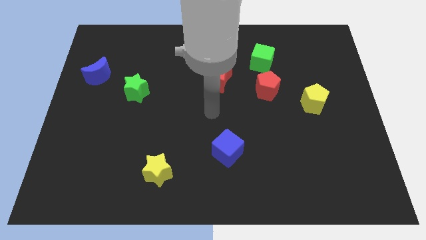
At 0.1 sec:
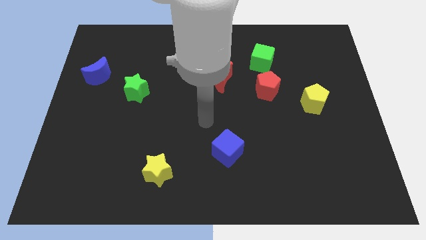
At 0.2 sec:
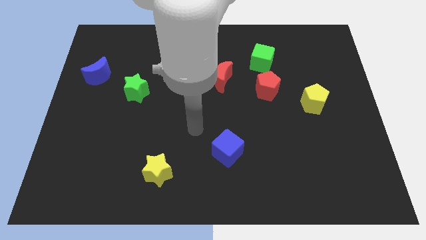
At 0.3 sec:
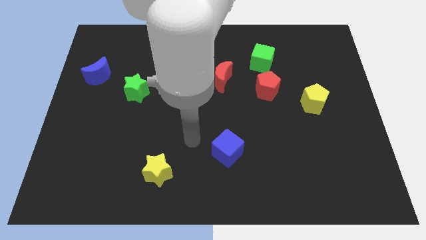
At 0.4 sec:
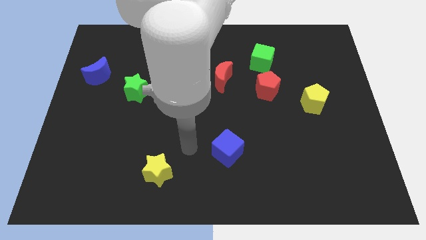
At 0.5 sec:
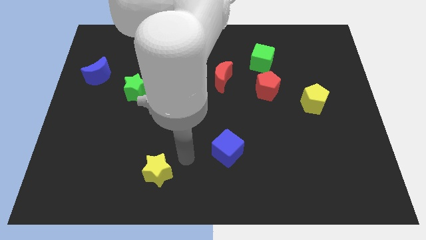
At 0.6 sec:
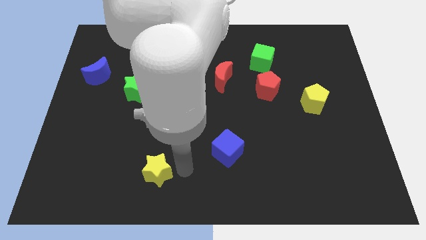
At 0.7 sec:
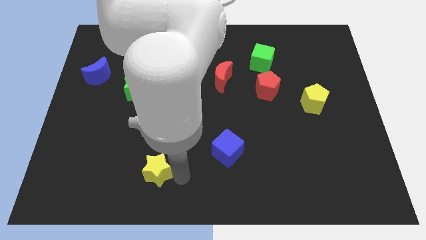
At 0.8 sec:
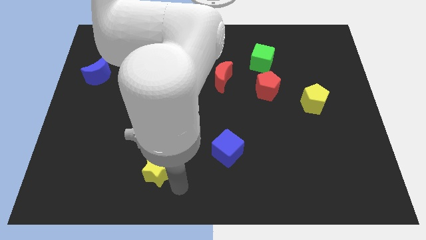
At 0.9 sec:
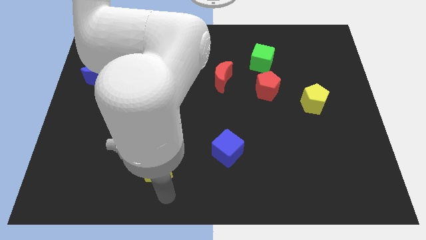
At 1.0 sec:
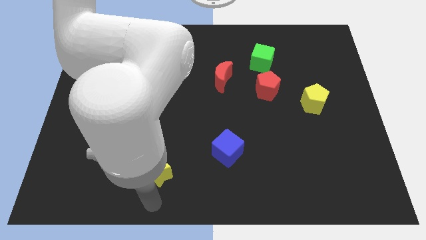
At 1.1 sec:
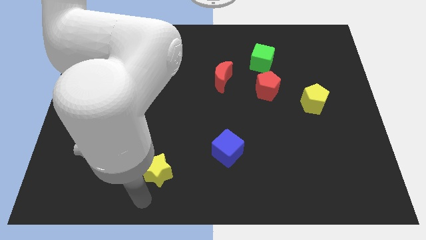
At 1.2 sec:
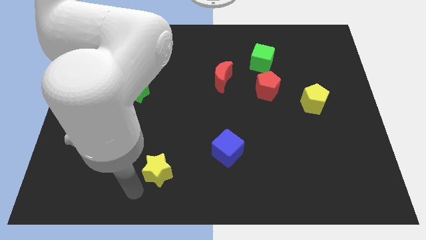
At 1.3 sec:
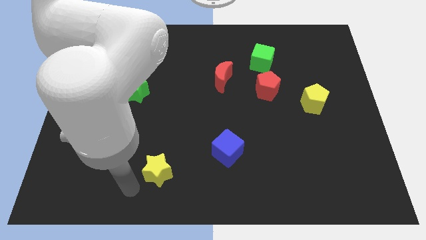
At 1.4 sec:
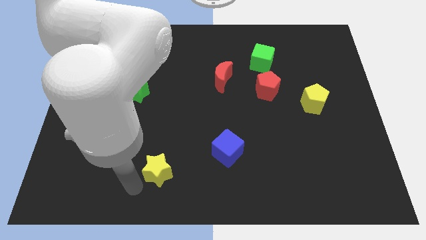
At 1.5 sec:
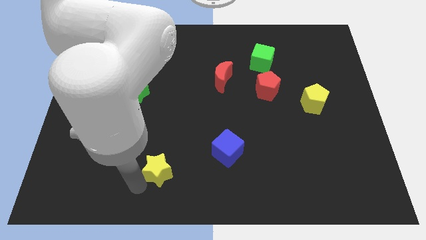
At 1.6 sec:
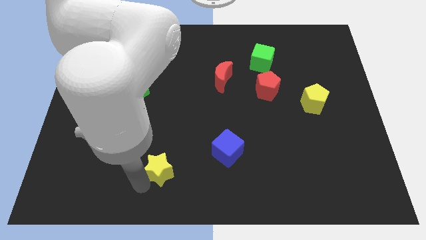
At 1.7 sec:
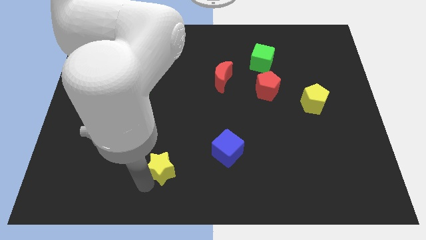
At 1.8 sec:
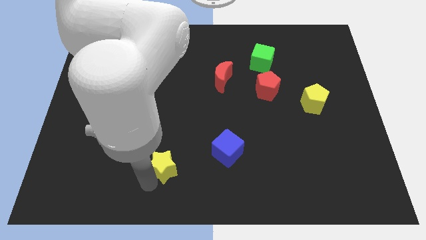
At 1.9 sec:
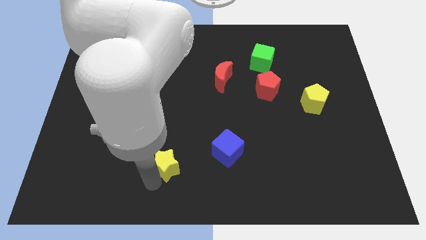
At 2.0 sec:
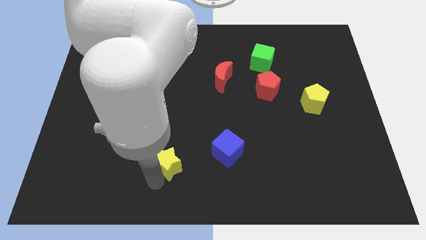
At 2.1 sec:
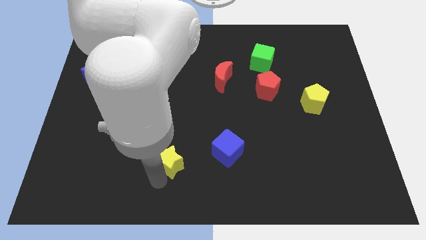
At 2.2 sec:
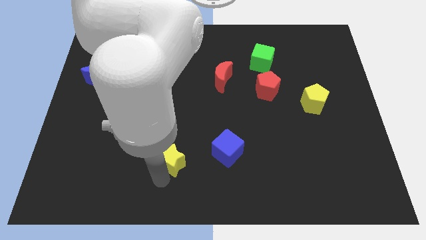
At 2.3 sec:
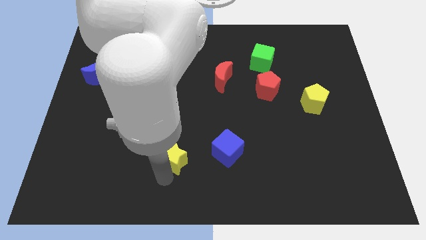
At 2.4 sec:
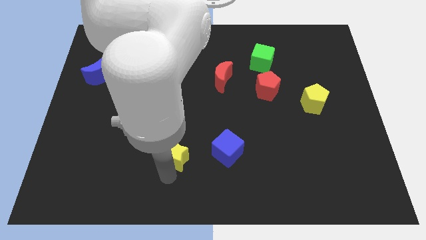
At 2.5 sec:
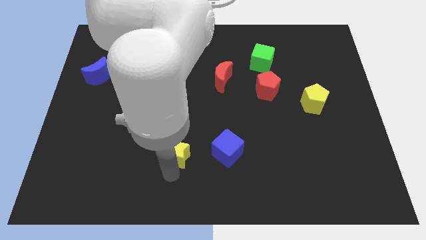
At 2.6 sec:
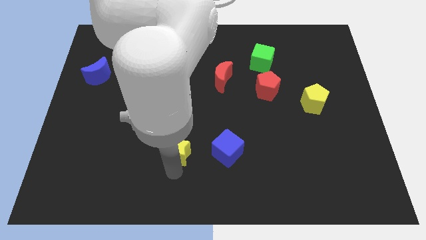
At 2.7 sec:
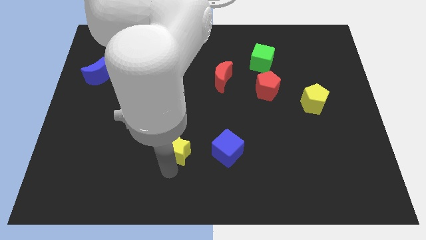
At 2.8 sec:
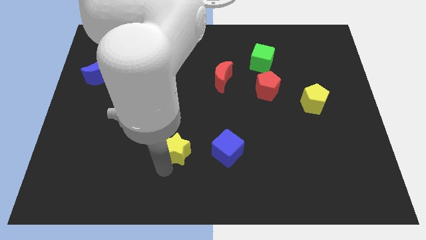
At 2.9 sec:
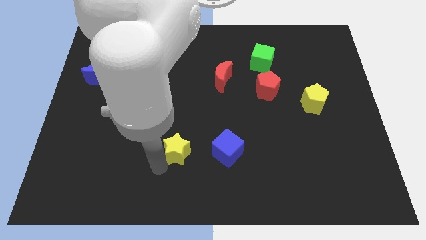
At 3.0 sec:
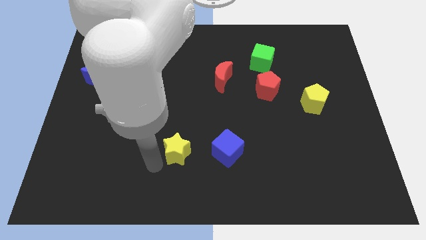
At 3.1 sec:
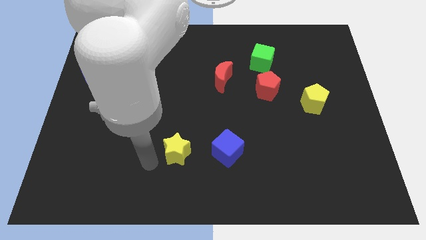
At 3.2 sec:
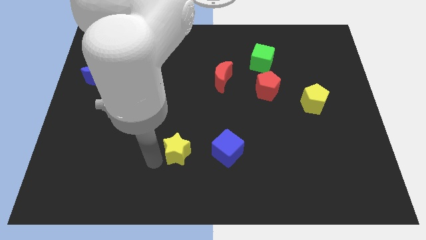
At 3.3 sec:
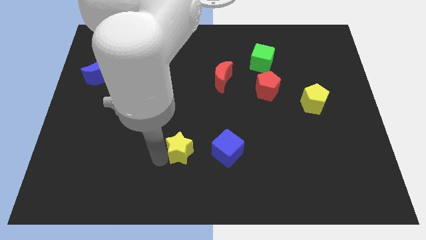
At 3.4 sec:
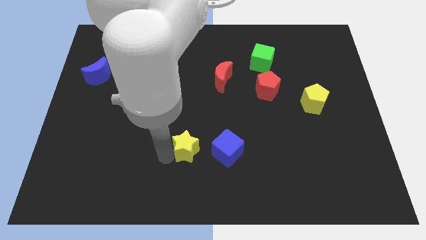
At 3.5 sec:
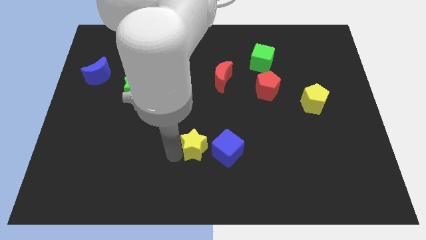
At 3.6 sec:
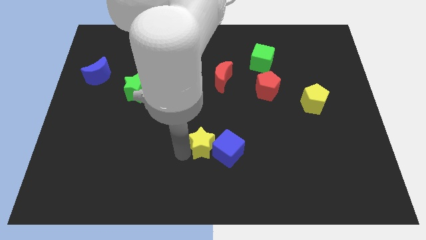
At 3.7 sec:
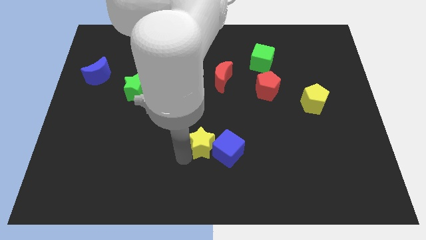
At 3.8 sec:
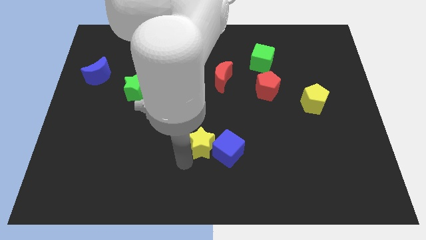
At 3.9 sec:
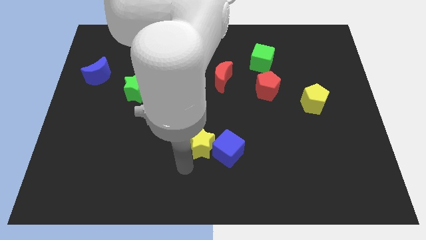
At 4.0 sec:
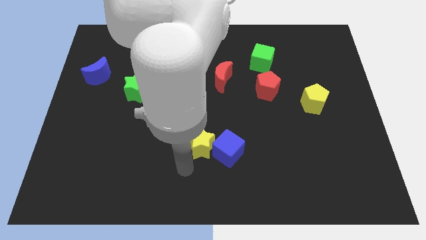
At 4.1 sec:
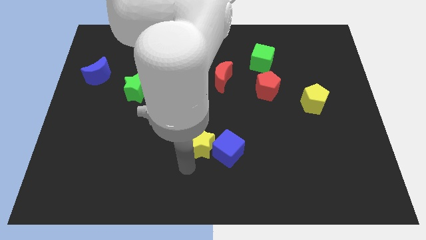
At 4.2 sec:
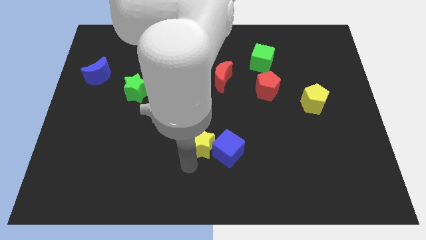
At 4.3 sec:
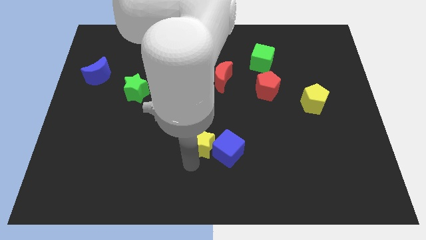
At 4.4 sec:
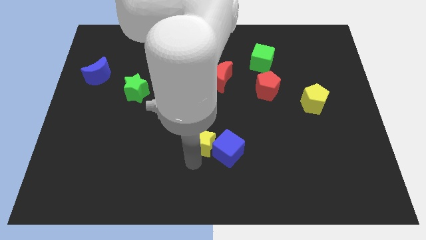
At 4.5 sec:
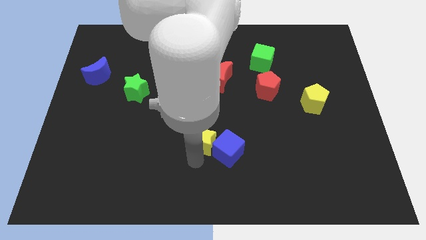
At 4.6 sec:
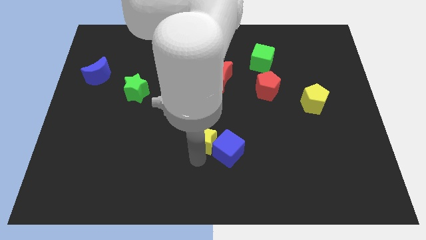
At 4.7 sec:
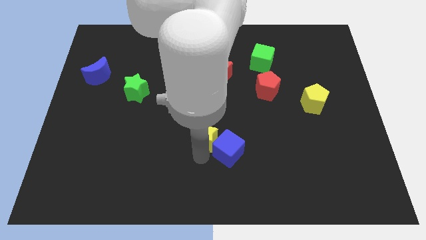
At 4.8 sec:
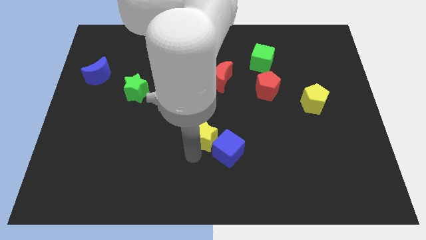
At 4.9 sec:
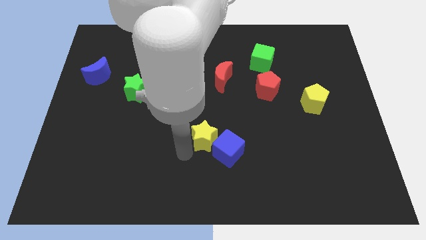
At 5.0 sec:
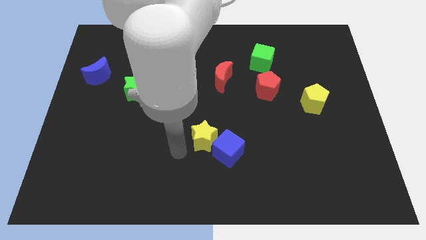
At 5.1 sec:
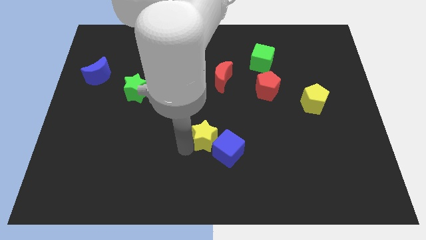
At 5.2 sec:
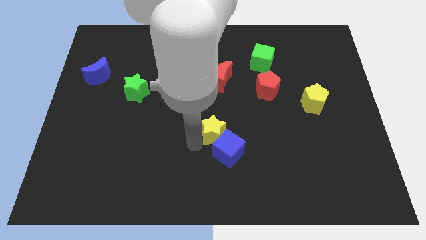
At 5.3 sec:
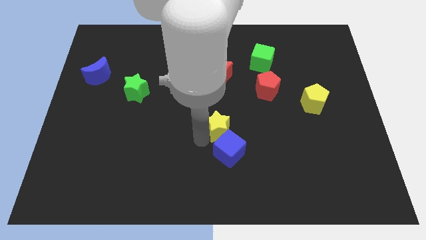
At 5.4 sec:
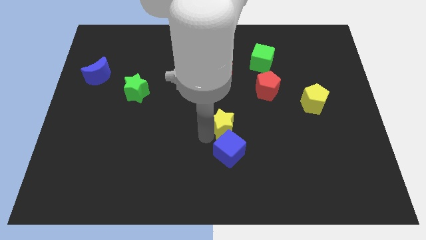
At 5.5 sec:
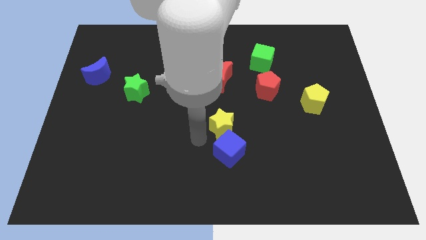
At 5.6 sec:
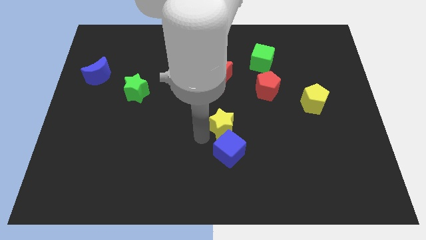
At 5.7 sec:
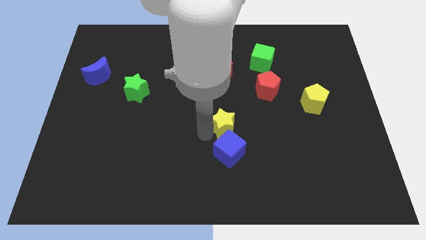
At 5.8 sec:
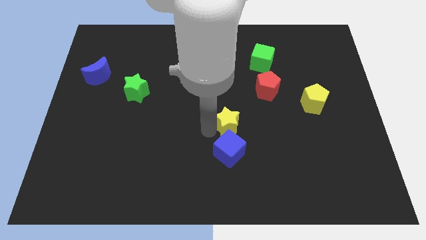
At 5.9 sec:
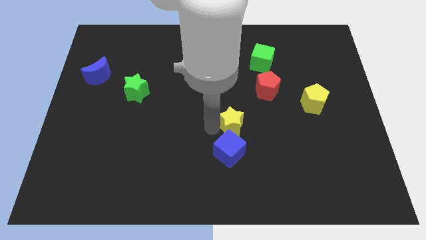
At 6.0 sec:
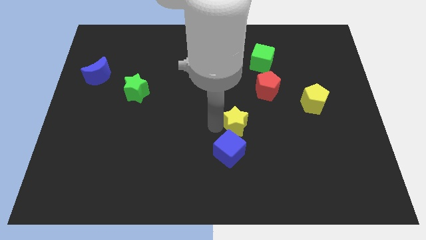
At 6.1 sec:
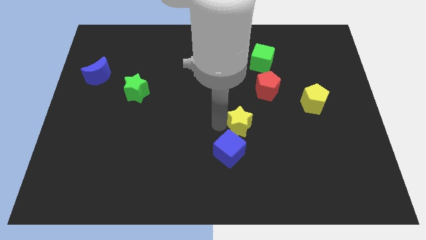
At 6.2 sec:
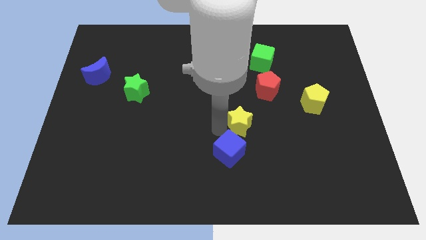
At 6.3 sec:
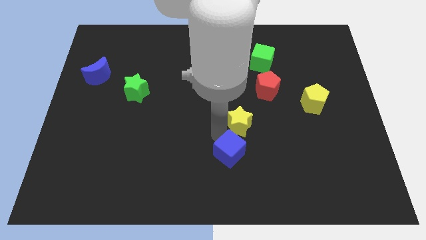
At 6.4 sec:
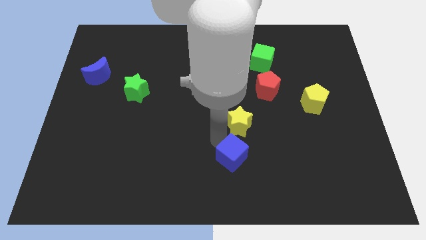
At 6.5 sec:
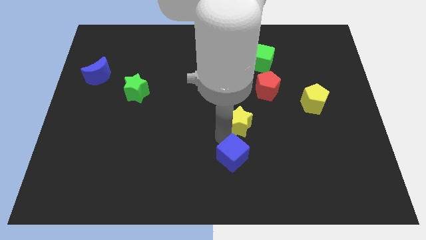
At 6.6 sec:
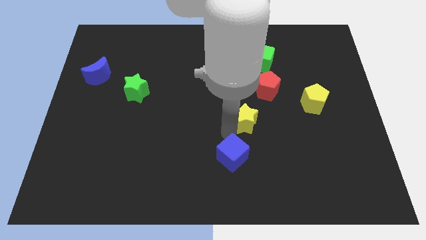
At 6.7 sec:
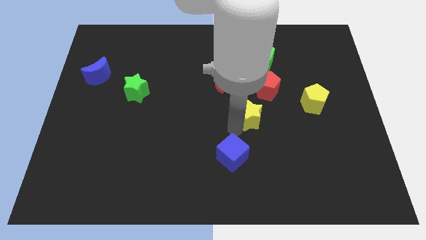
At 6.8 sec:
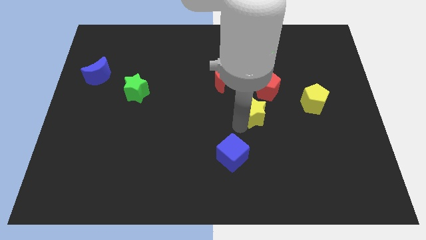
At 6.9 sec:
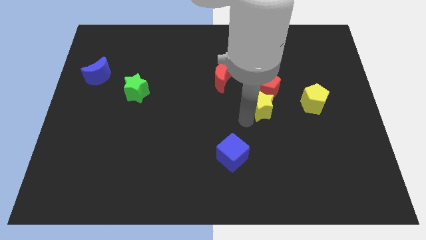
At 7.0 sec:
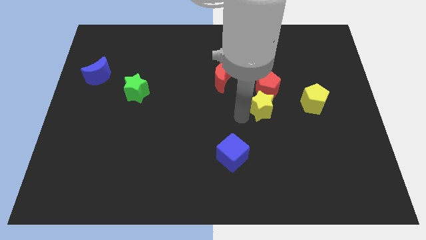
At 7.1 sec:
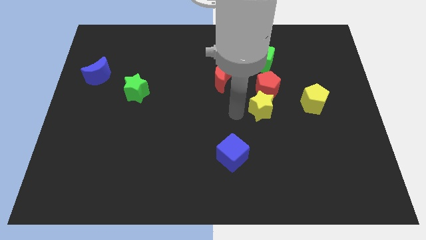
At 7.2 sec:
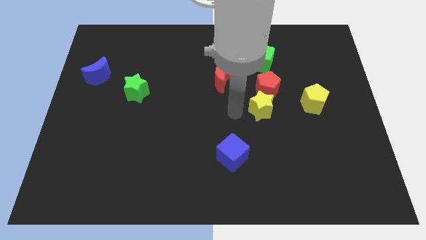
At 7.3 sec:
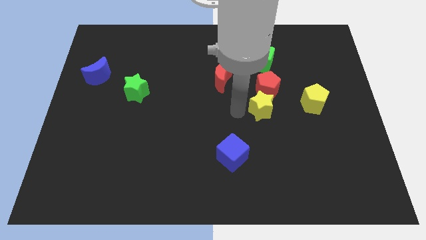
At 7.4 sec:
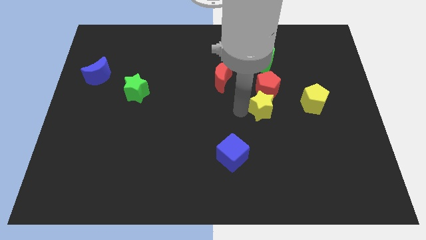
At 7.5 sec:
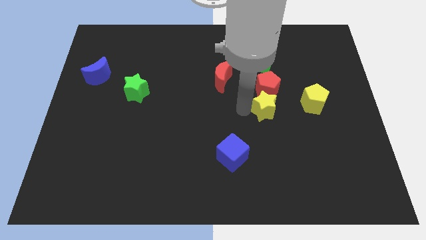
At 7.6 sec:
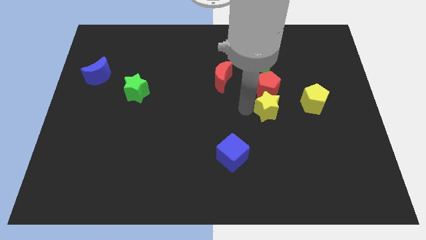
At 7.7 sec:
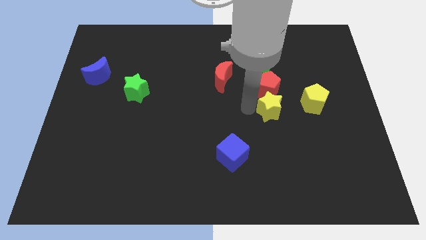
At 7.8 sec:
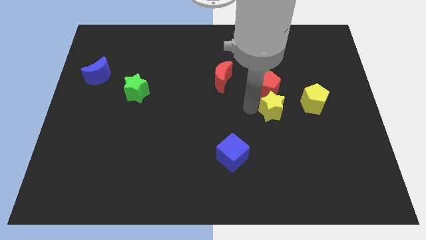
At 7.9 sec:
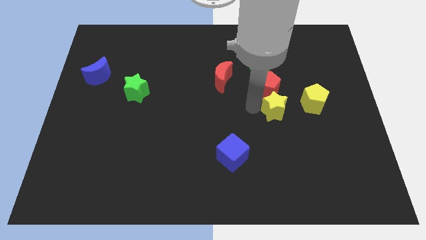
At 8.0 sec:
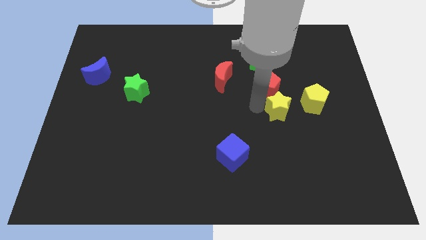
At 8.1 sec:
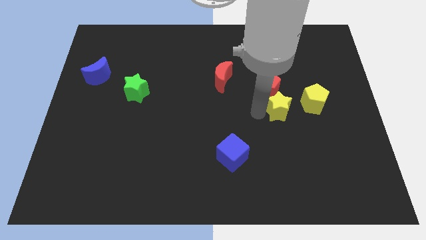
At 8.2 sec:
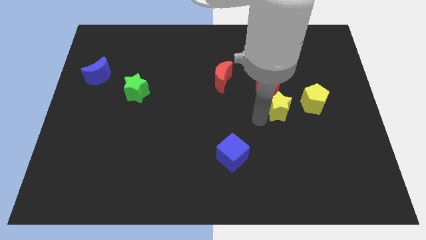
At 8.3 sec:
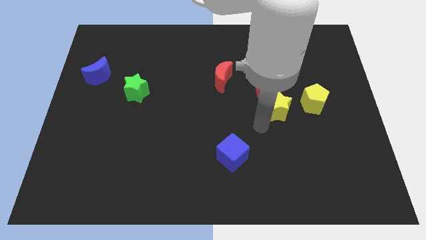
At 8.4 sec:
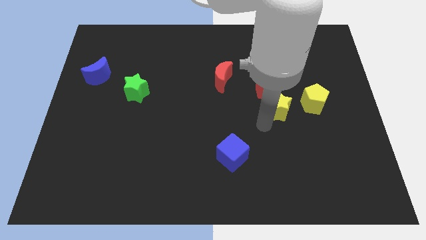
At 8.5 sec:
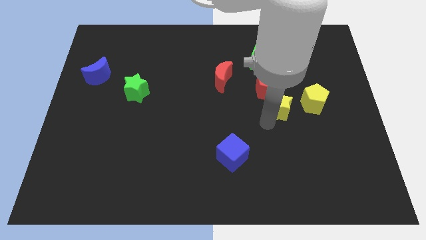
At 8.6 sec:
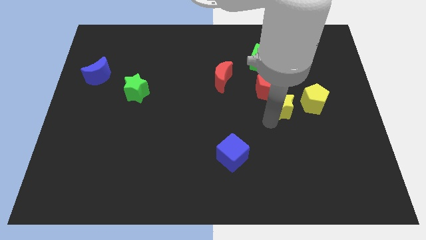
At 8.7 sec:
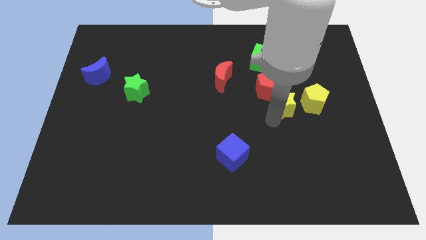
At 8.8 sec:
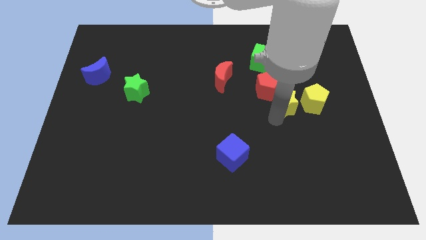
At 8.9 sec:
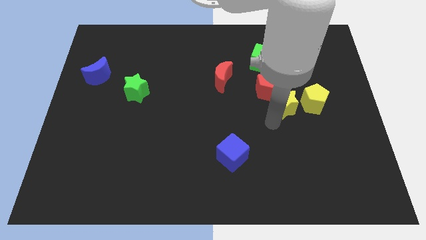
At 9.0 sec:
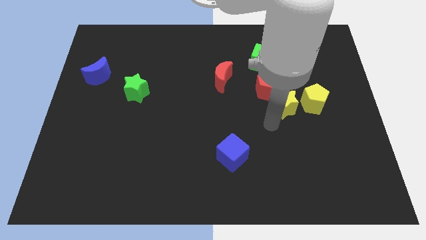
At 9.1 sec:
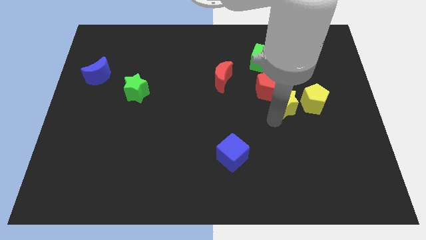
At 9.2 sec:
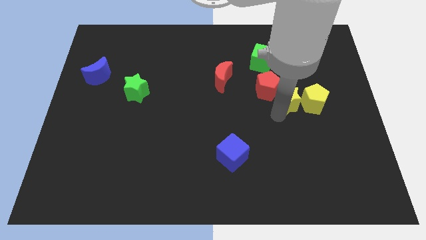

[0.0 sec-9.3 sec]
move the yellow star to the right of the red pentagon
